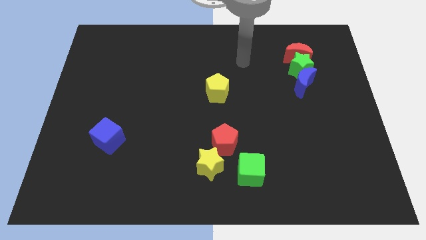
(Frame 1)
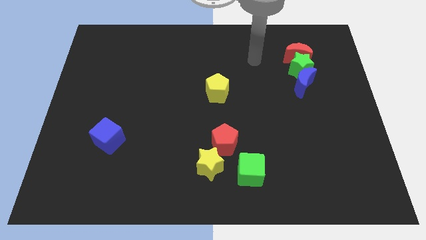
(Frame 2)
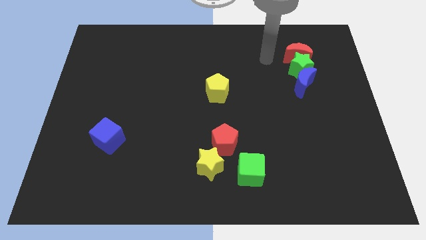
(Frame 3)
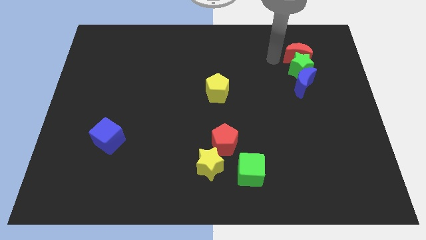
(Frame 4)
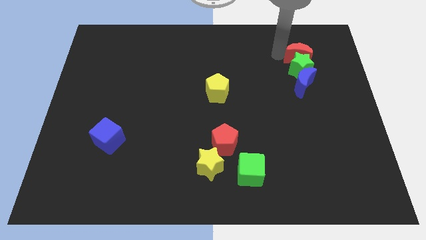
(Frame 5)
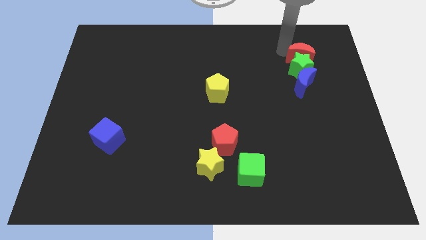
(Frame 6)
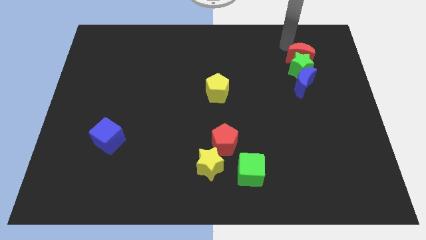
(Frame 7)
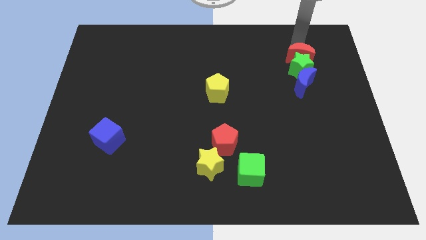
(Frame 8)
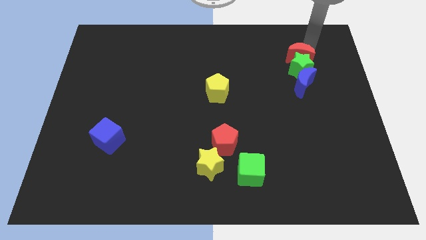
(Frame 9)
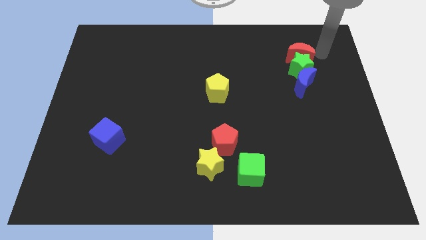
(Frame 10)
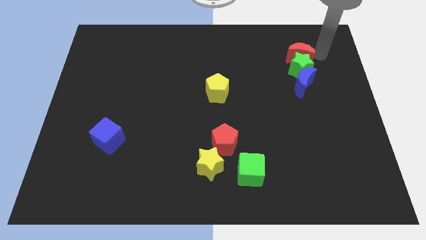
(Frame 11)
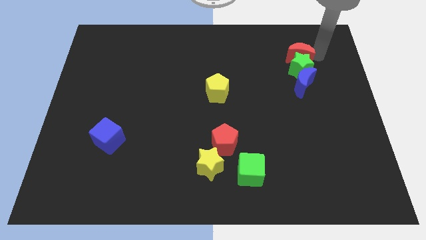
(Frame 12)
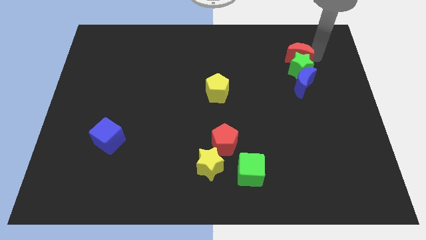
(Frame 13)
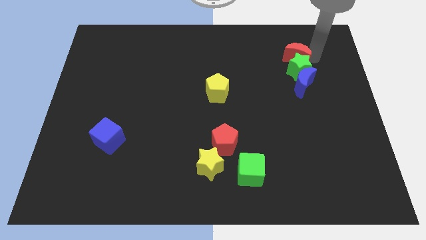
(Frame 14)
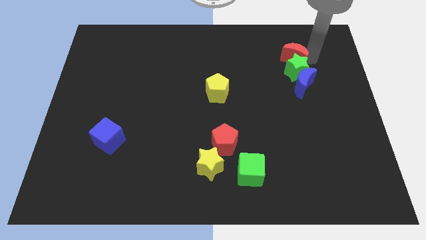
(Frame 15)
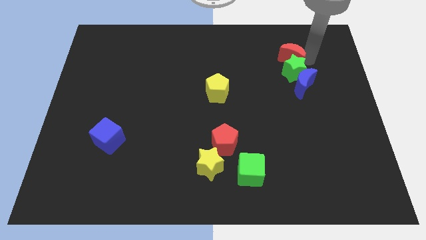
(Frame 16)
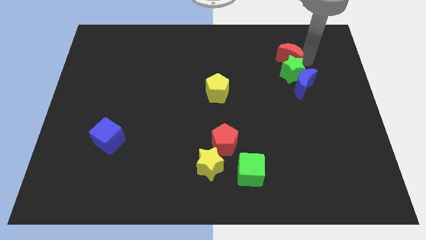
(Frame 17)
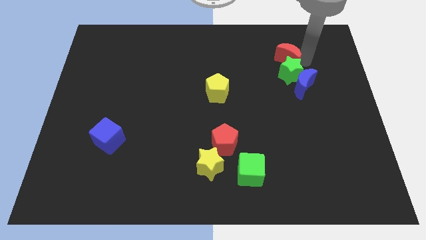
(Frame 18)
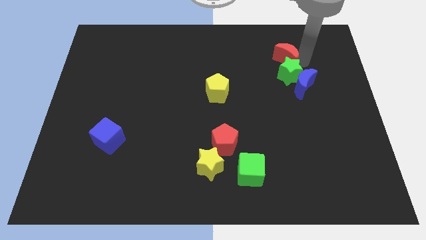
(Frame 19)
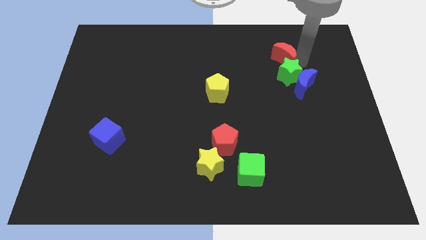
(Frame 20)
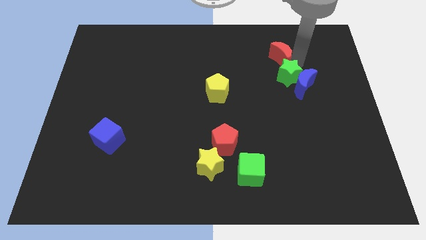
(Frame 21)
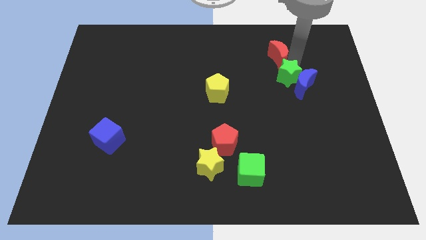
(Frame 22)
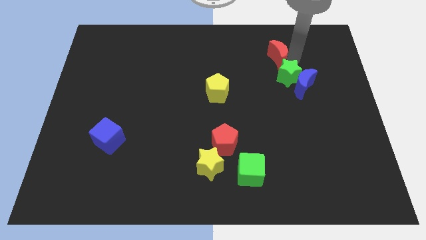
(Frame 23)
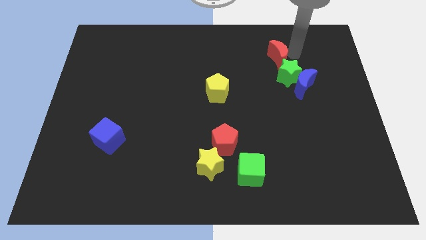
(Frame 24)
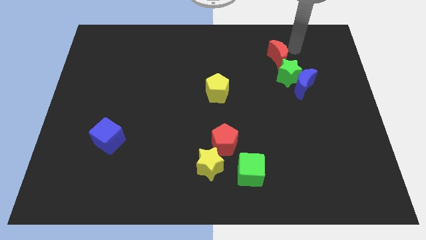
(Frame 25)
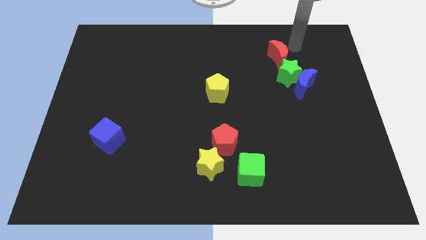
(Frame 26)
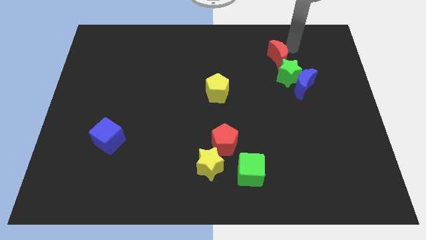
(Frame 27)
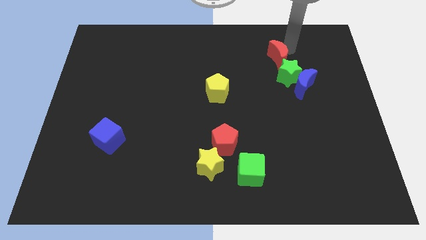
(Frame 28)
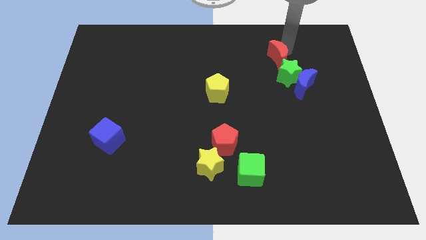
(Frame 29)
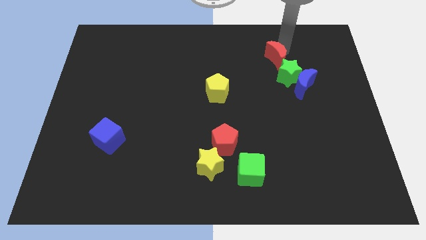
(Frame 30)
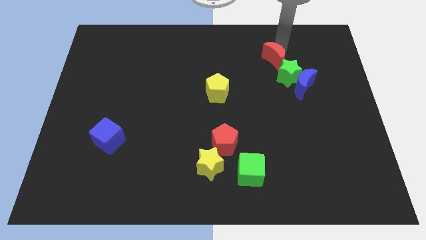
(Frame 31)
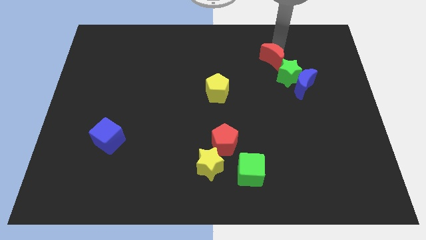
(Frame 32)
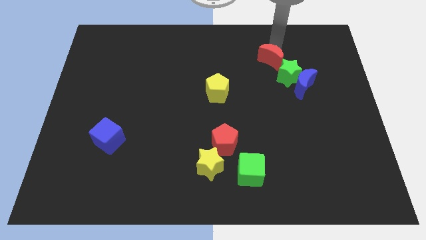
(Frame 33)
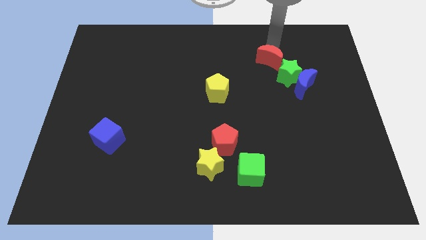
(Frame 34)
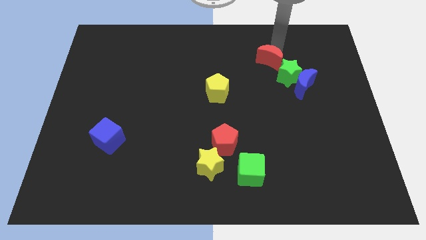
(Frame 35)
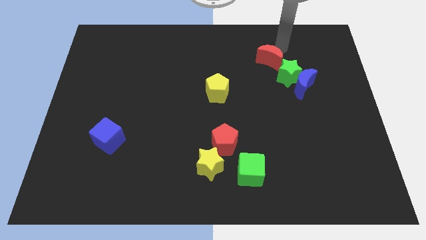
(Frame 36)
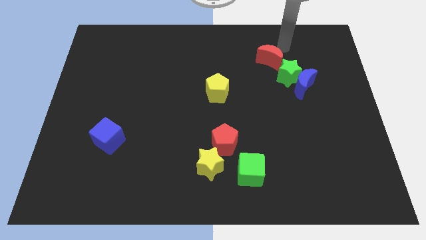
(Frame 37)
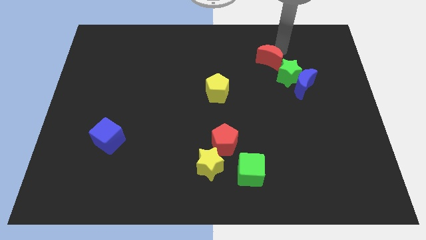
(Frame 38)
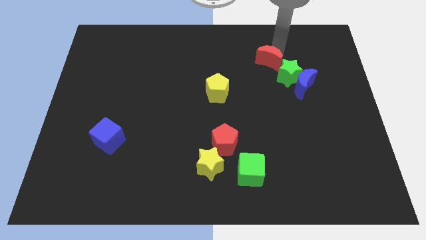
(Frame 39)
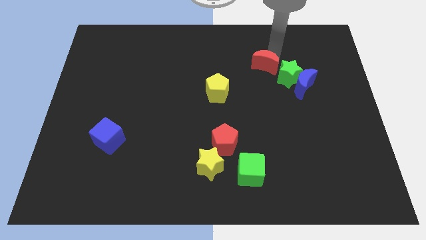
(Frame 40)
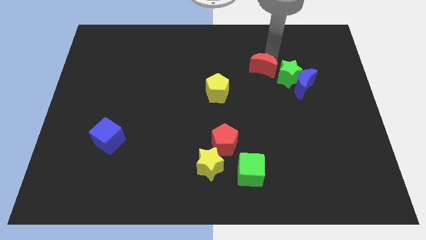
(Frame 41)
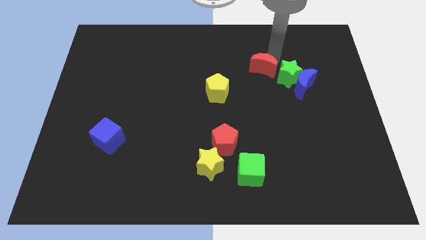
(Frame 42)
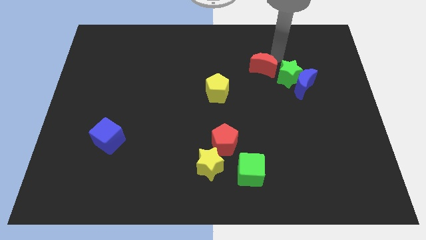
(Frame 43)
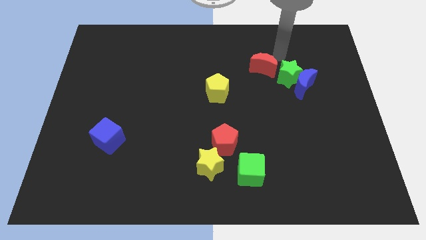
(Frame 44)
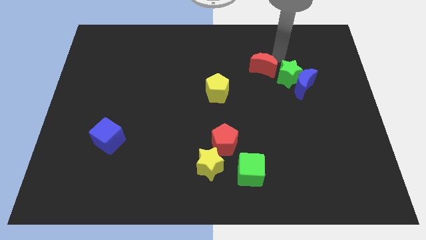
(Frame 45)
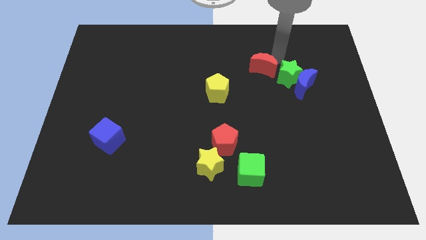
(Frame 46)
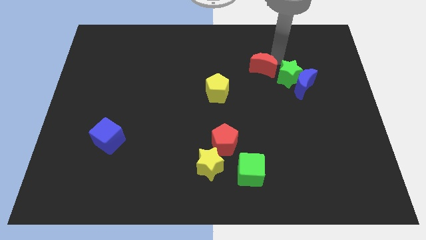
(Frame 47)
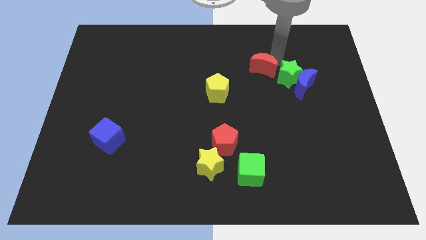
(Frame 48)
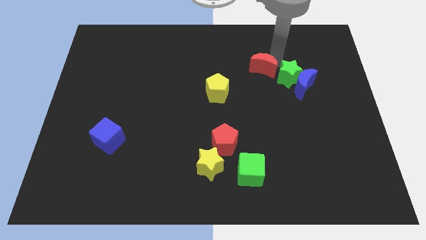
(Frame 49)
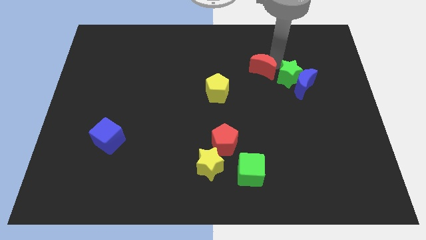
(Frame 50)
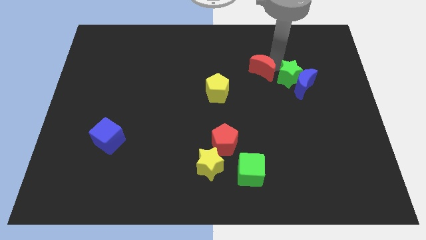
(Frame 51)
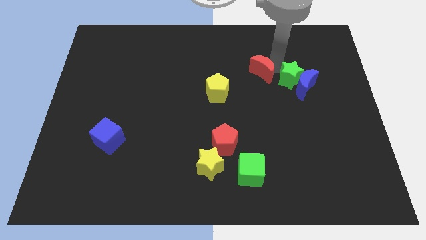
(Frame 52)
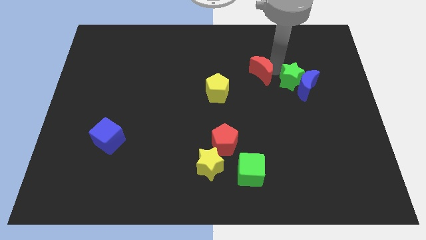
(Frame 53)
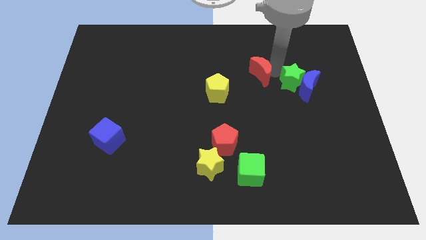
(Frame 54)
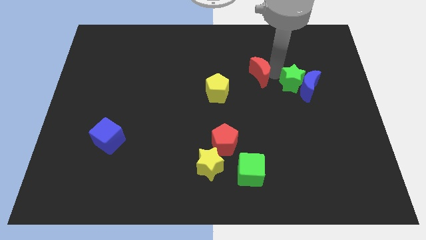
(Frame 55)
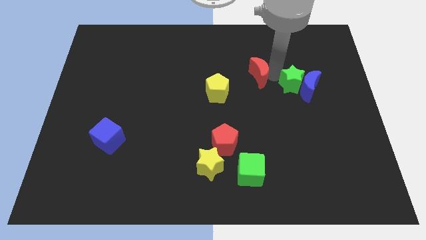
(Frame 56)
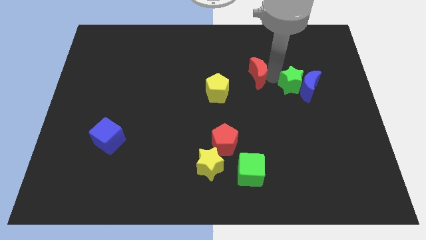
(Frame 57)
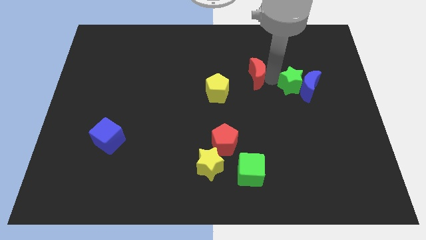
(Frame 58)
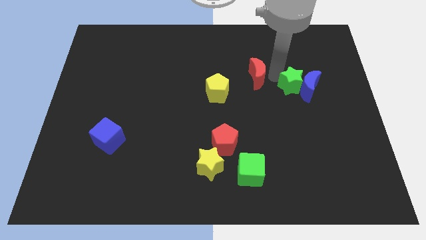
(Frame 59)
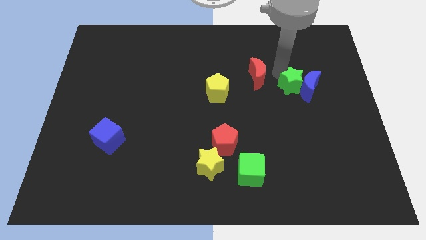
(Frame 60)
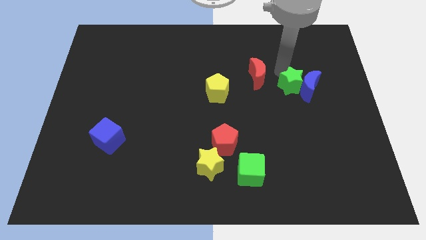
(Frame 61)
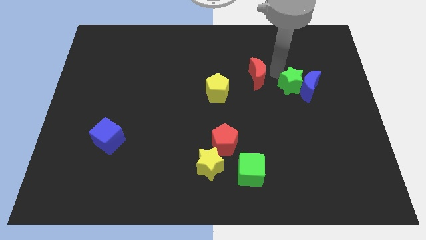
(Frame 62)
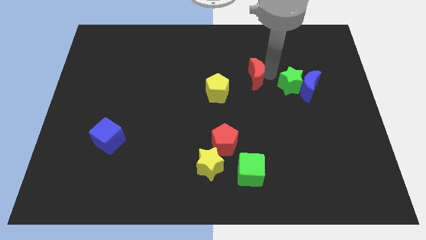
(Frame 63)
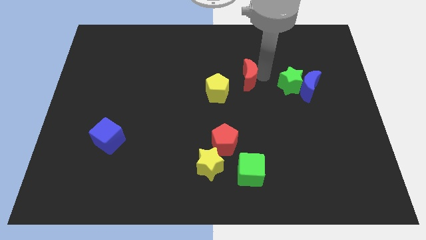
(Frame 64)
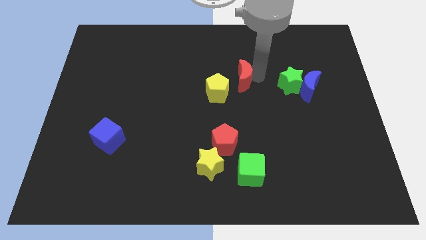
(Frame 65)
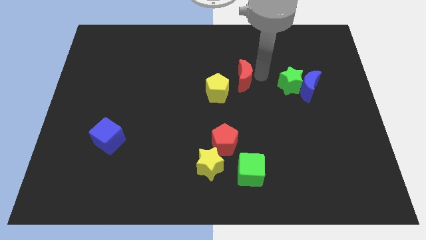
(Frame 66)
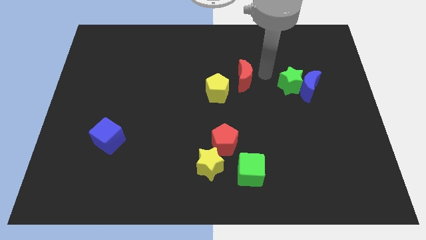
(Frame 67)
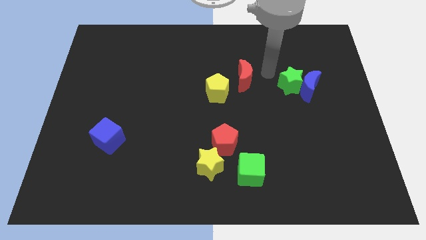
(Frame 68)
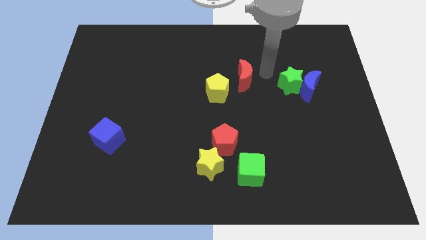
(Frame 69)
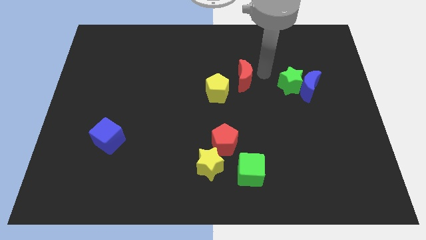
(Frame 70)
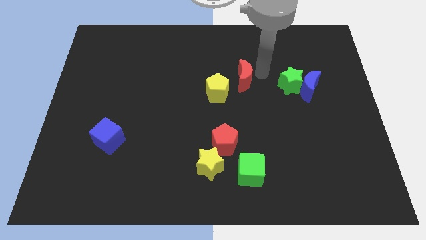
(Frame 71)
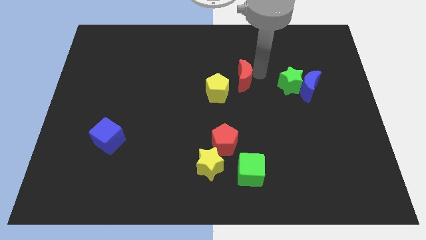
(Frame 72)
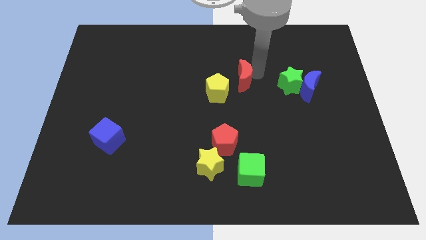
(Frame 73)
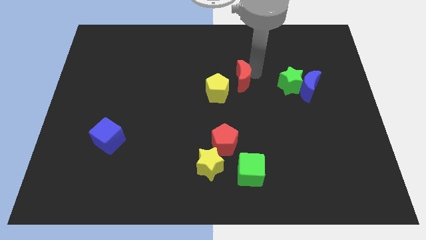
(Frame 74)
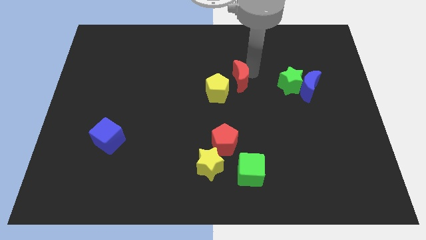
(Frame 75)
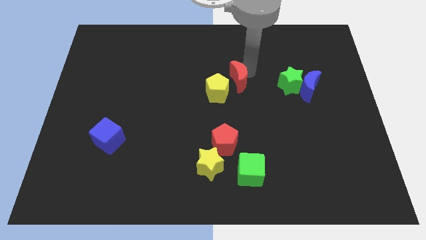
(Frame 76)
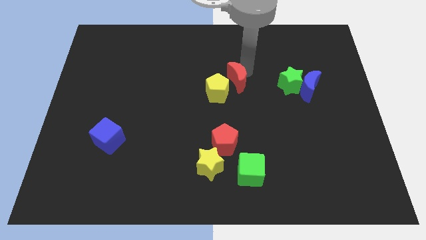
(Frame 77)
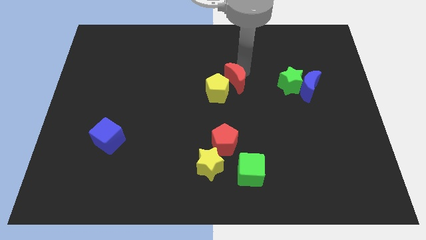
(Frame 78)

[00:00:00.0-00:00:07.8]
put the red moon close to the yellow pentagon
